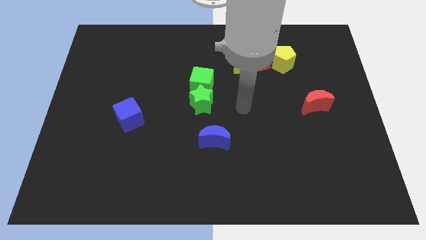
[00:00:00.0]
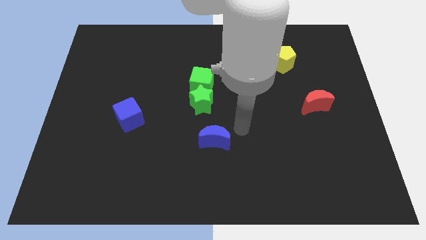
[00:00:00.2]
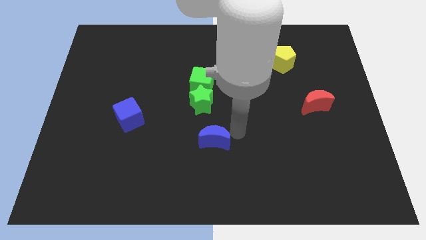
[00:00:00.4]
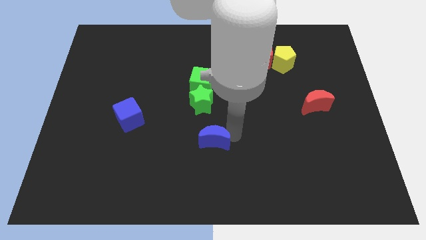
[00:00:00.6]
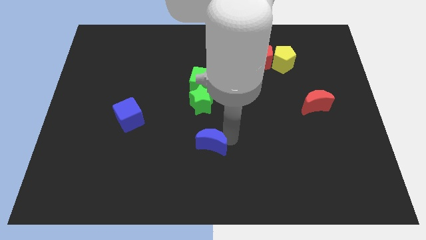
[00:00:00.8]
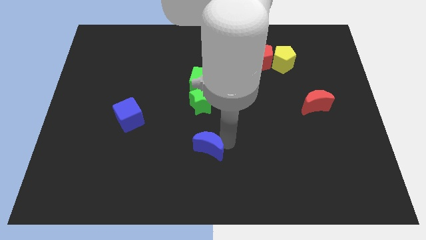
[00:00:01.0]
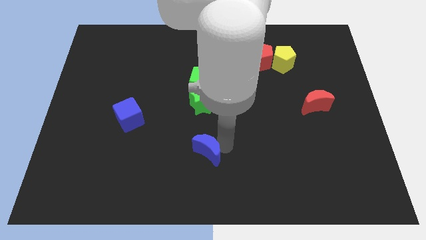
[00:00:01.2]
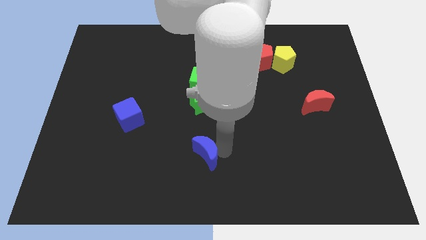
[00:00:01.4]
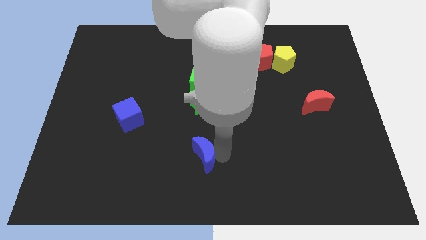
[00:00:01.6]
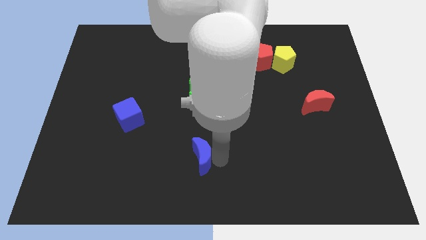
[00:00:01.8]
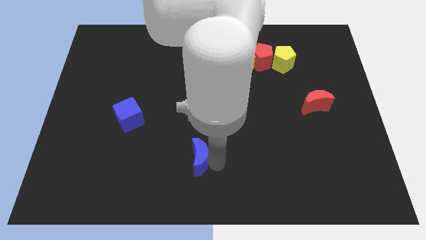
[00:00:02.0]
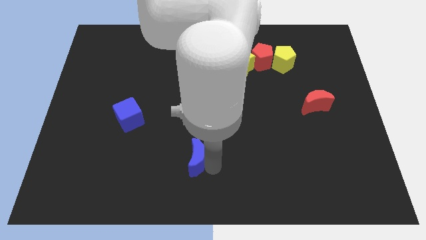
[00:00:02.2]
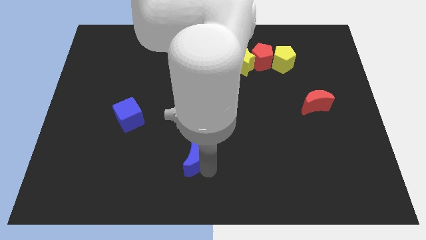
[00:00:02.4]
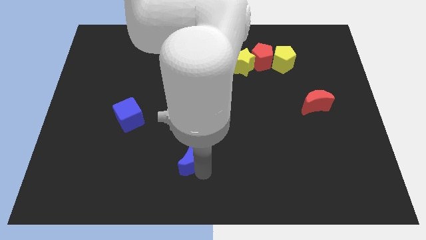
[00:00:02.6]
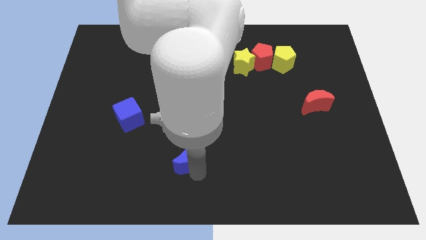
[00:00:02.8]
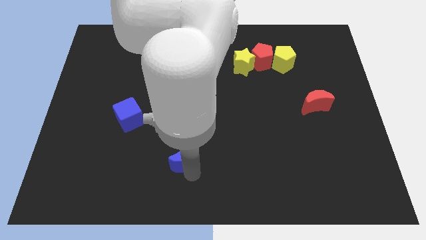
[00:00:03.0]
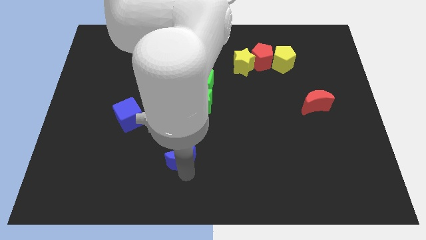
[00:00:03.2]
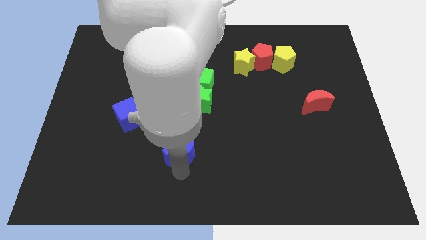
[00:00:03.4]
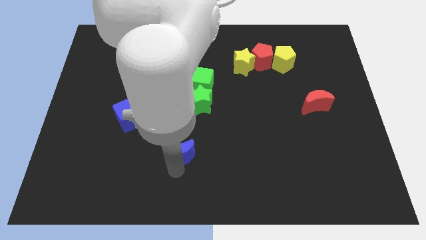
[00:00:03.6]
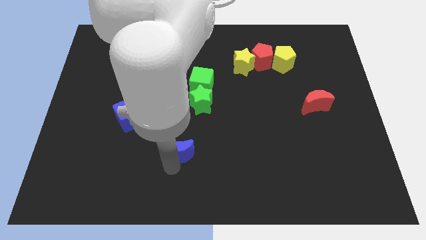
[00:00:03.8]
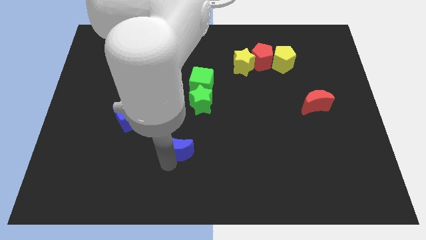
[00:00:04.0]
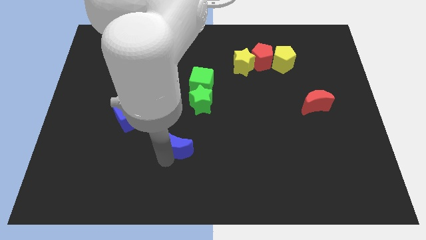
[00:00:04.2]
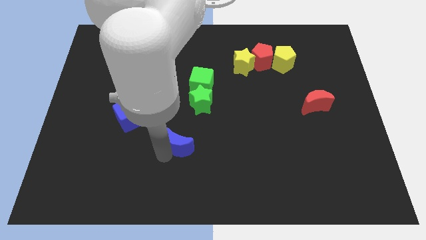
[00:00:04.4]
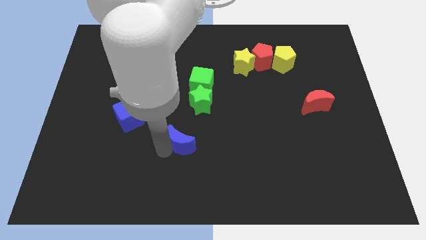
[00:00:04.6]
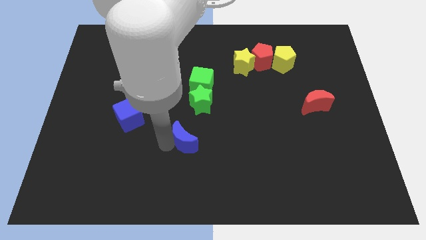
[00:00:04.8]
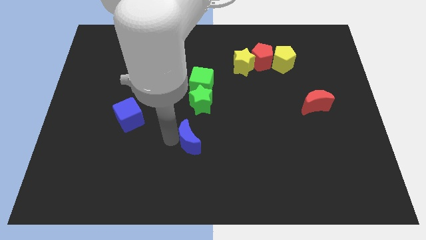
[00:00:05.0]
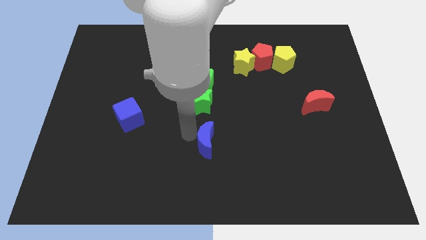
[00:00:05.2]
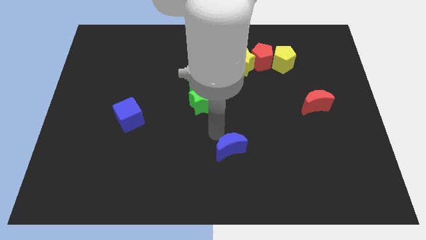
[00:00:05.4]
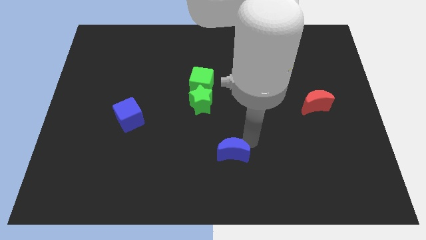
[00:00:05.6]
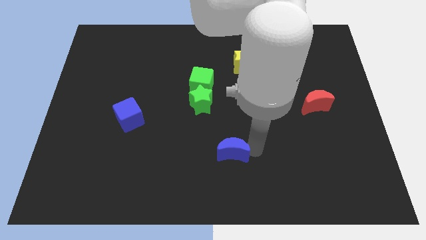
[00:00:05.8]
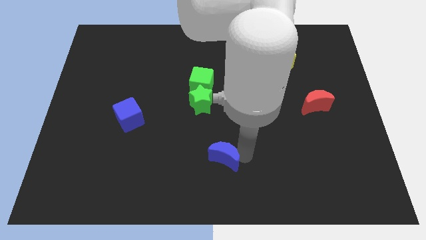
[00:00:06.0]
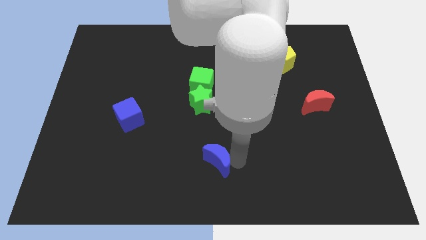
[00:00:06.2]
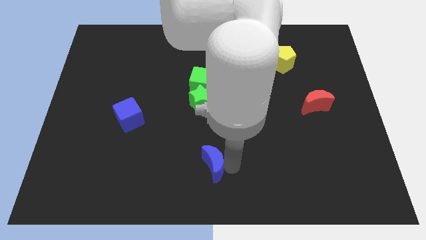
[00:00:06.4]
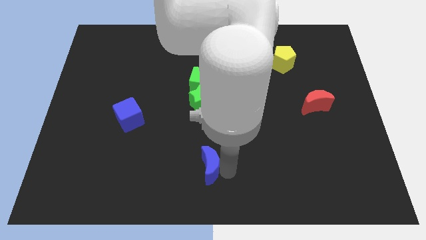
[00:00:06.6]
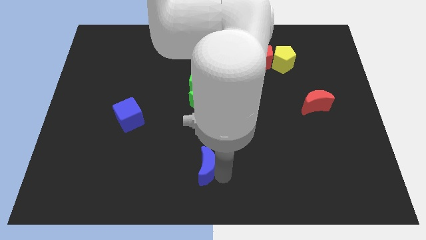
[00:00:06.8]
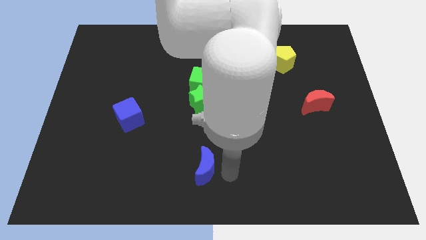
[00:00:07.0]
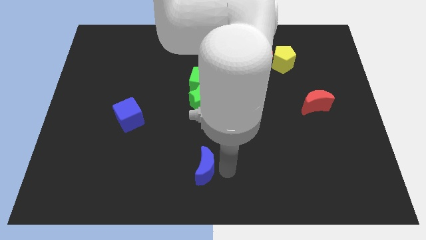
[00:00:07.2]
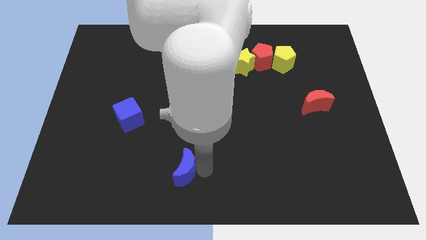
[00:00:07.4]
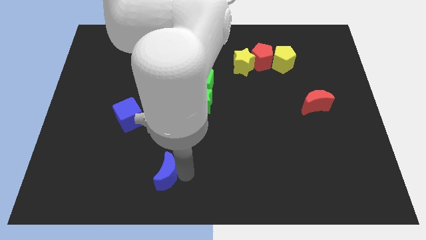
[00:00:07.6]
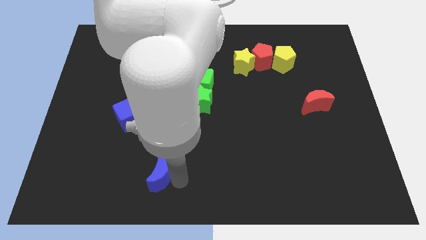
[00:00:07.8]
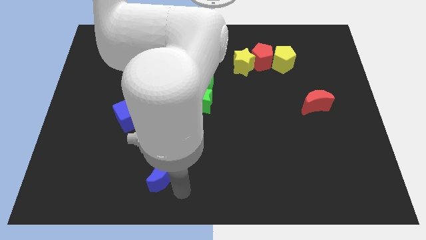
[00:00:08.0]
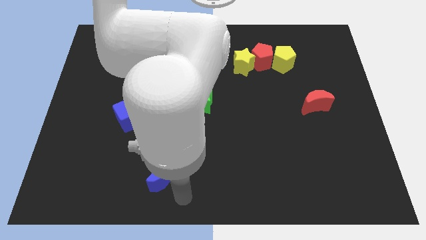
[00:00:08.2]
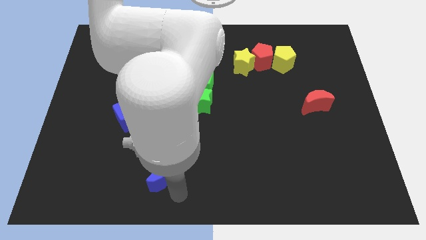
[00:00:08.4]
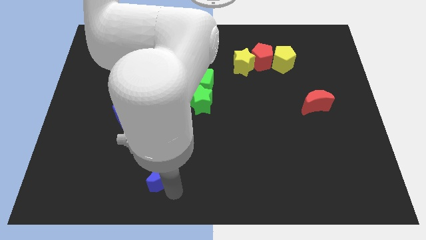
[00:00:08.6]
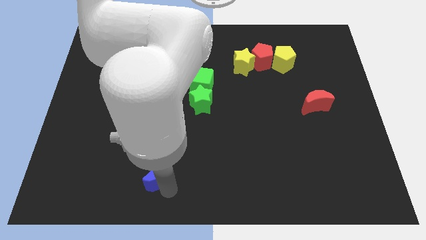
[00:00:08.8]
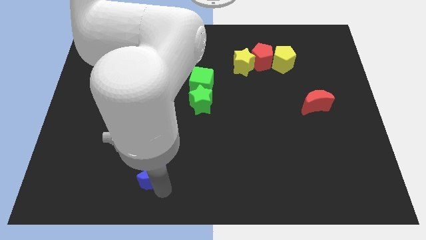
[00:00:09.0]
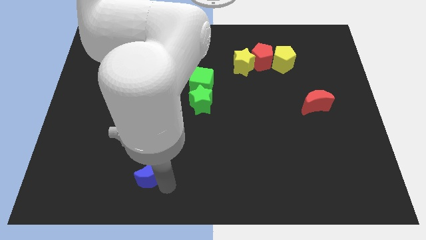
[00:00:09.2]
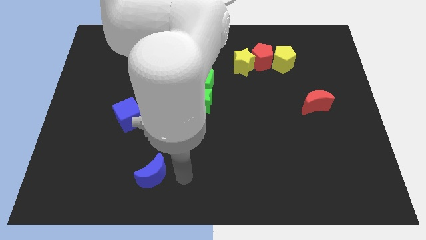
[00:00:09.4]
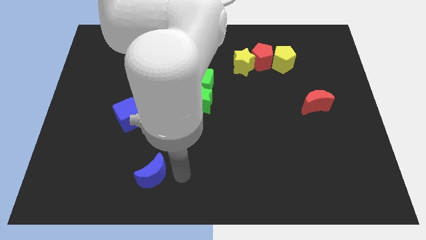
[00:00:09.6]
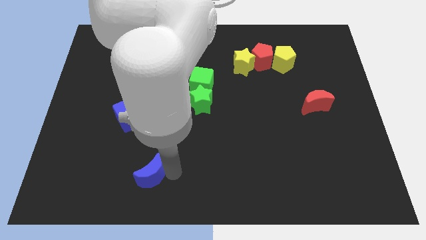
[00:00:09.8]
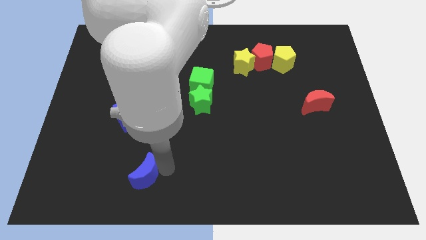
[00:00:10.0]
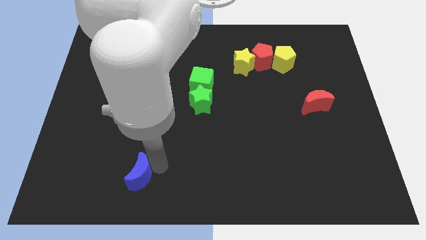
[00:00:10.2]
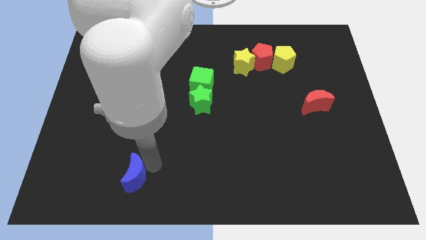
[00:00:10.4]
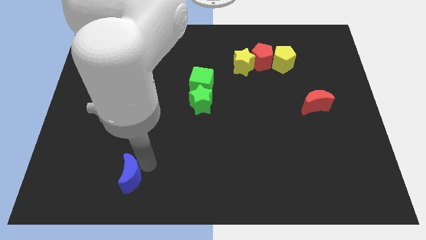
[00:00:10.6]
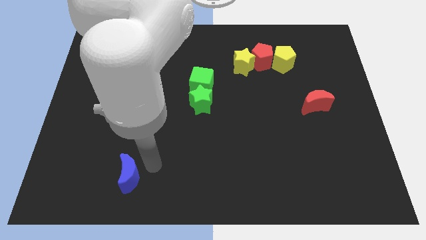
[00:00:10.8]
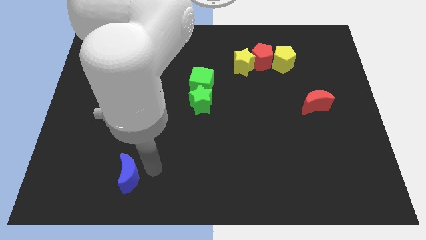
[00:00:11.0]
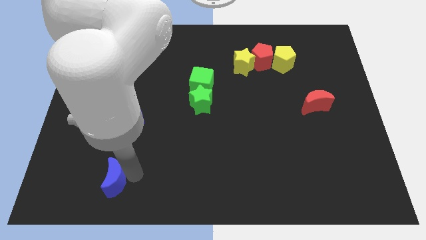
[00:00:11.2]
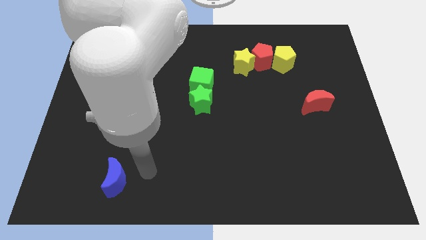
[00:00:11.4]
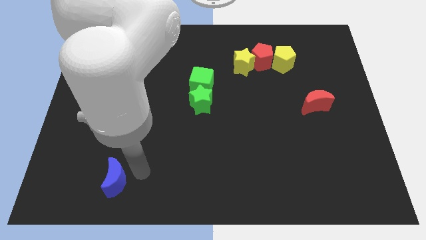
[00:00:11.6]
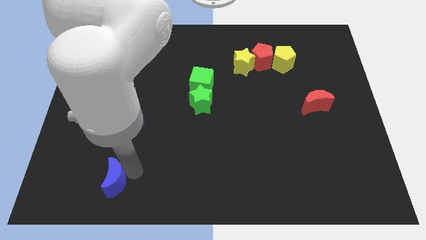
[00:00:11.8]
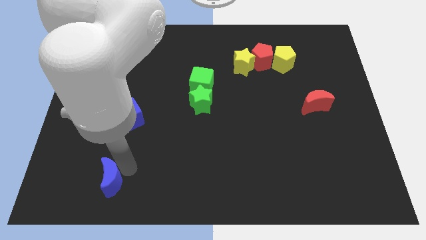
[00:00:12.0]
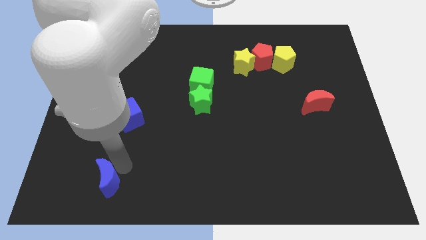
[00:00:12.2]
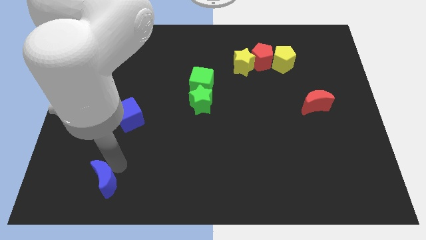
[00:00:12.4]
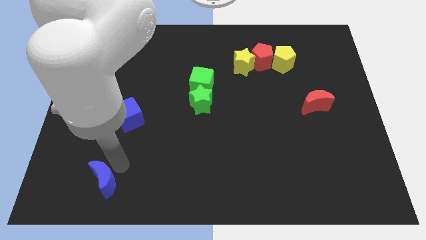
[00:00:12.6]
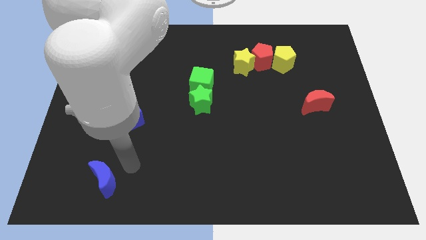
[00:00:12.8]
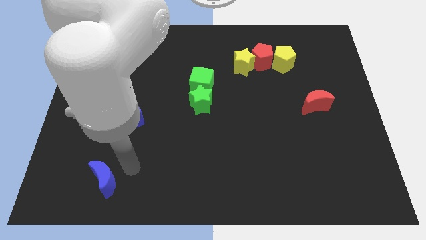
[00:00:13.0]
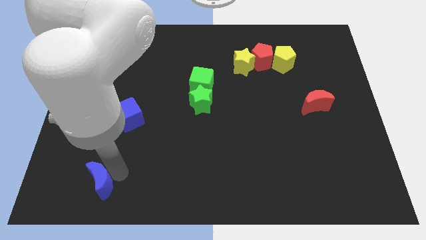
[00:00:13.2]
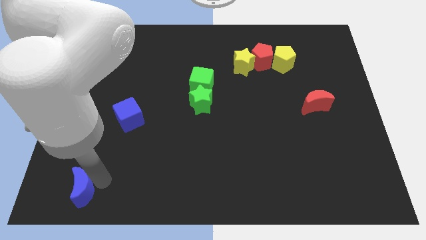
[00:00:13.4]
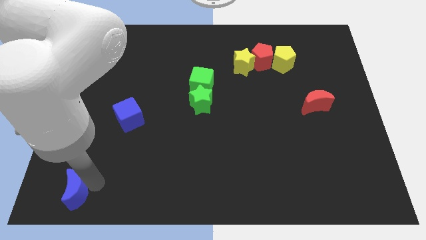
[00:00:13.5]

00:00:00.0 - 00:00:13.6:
push the blue moon to the bottom left
